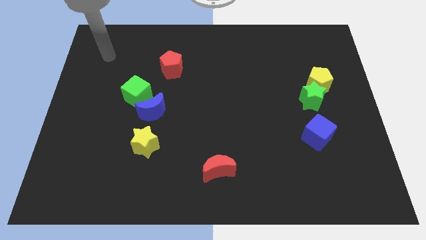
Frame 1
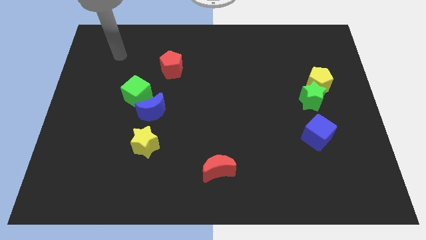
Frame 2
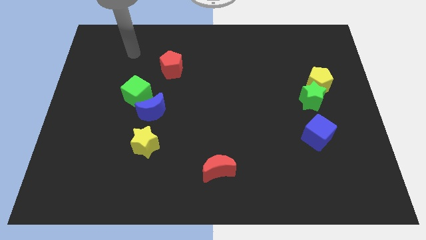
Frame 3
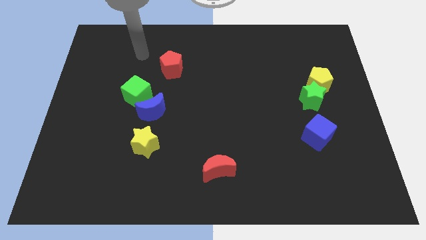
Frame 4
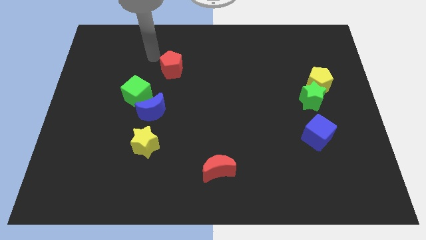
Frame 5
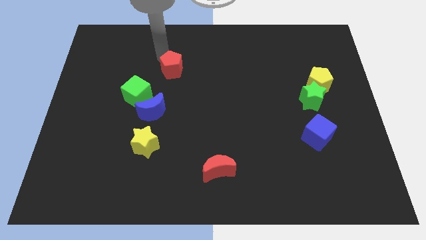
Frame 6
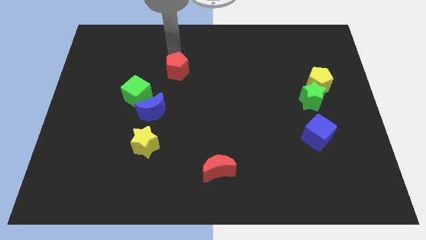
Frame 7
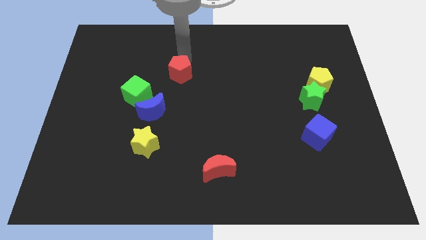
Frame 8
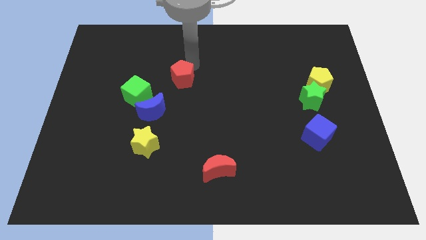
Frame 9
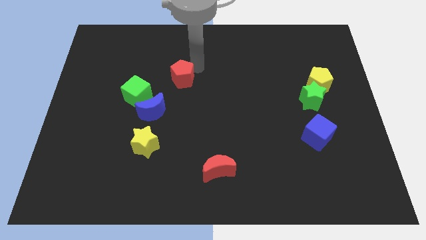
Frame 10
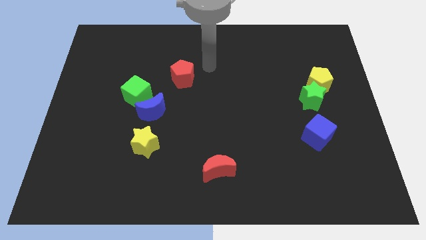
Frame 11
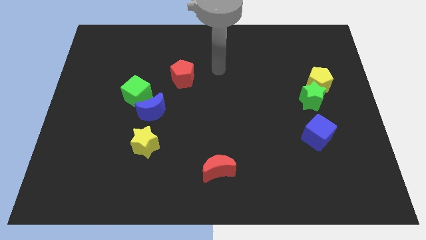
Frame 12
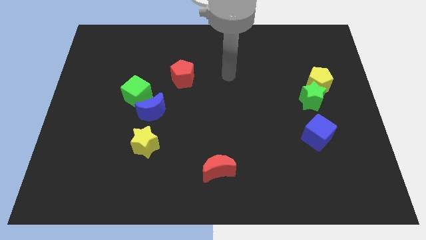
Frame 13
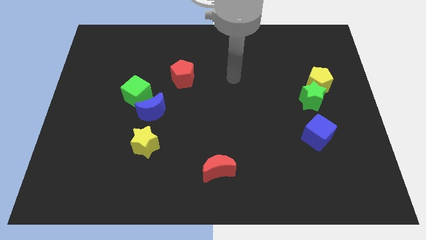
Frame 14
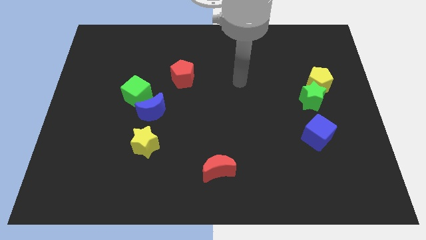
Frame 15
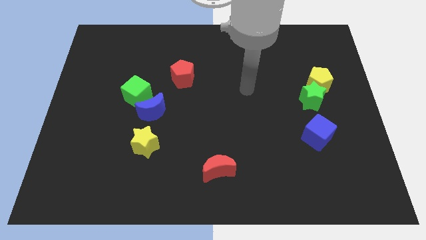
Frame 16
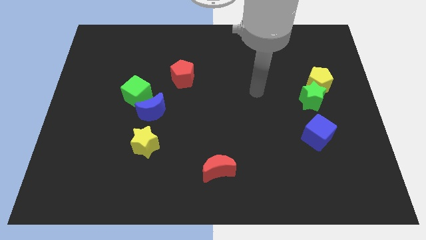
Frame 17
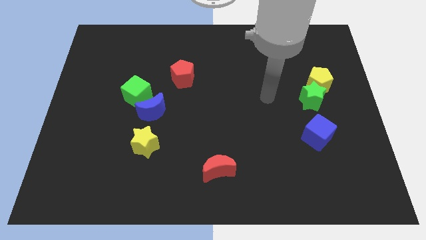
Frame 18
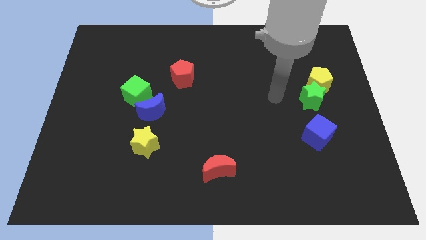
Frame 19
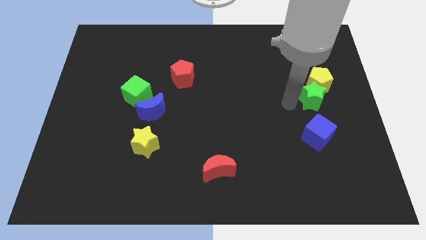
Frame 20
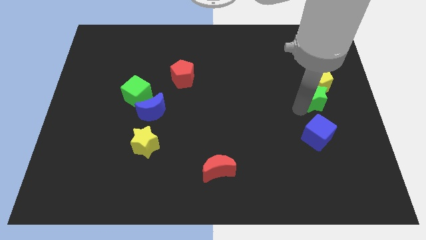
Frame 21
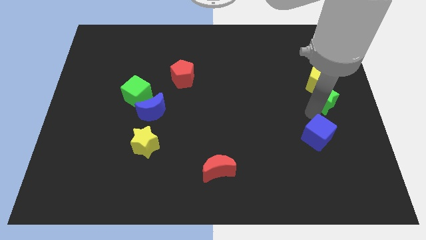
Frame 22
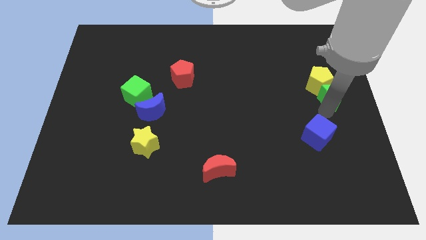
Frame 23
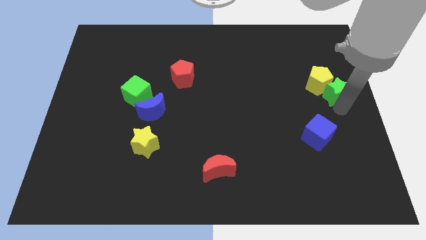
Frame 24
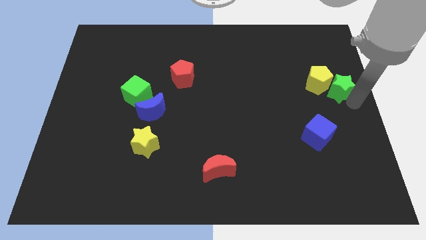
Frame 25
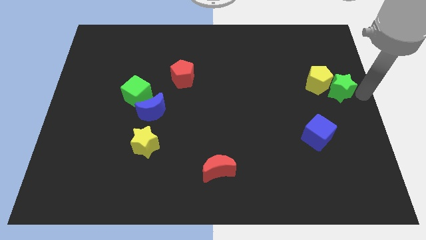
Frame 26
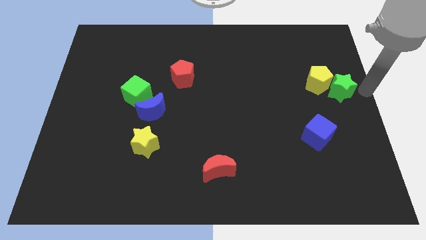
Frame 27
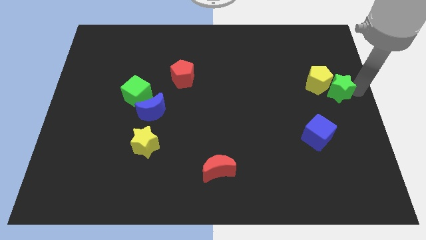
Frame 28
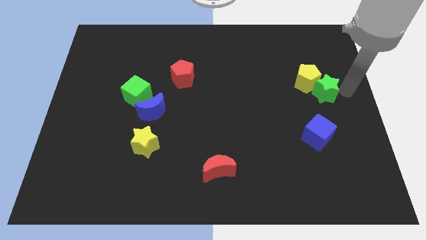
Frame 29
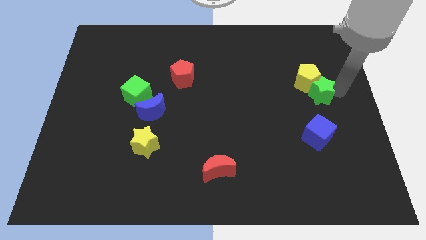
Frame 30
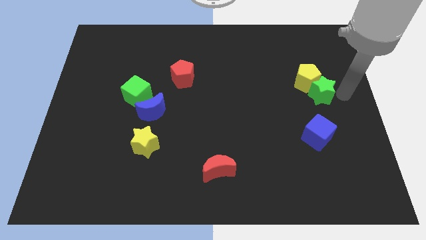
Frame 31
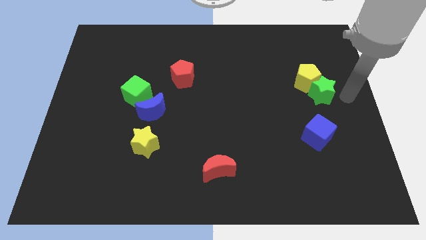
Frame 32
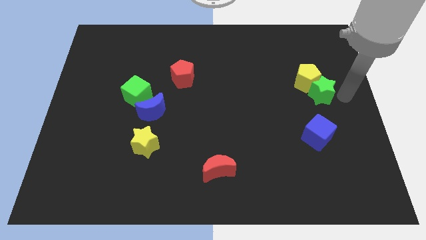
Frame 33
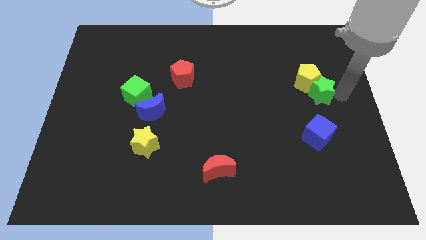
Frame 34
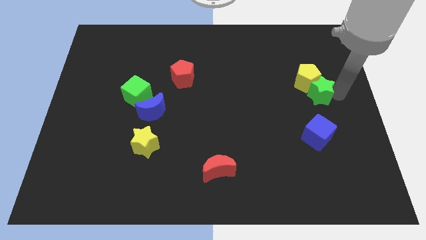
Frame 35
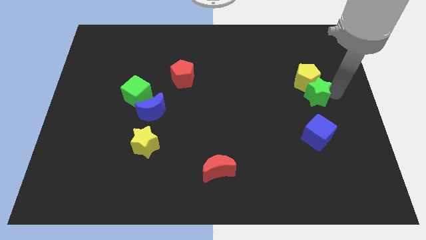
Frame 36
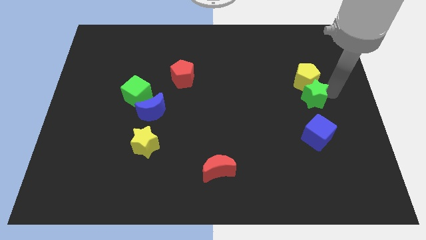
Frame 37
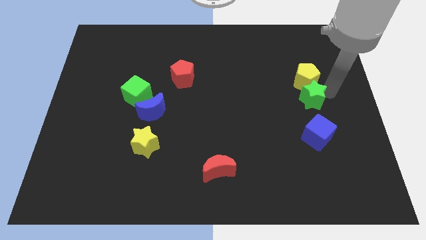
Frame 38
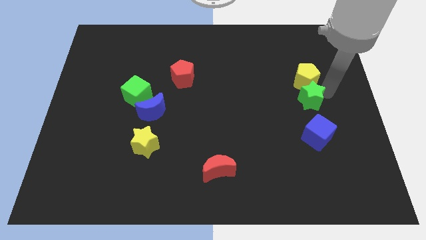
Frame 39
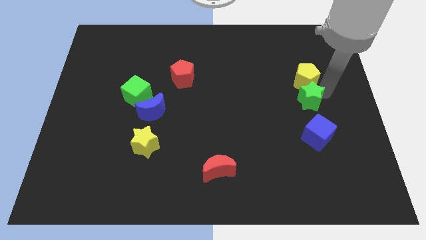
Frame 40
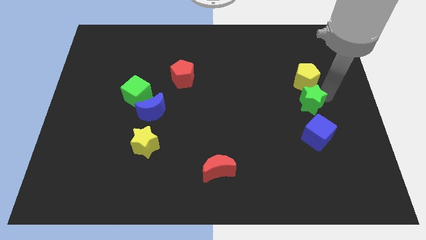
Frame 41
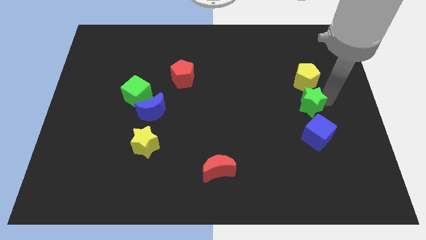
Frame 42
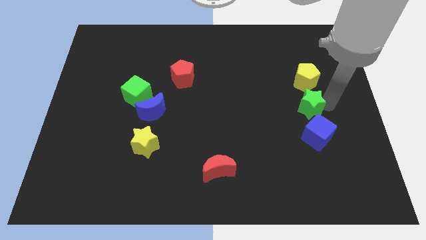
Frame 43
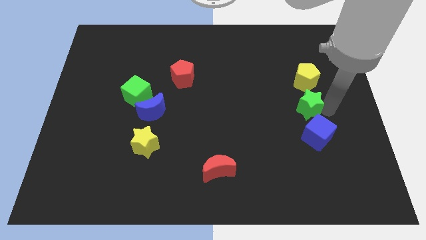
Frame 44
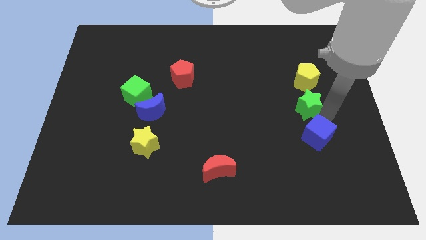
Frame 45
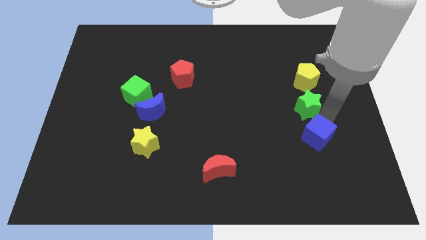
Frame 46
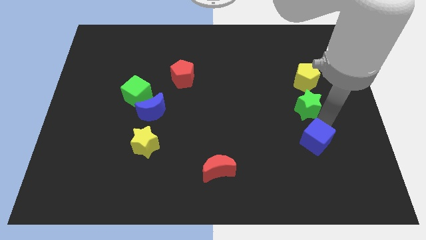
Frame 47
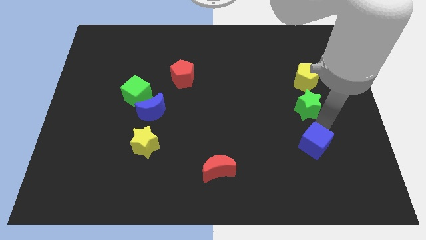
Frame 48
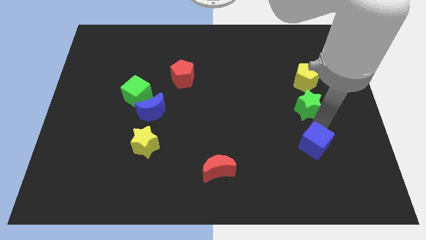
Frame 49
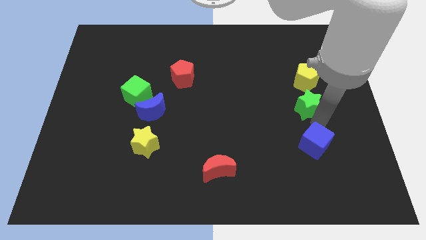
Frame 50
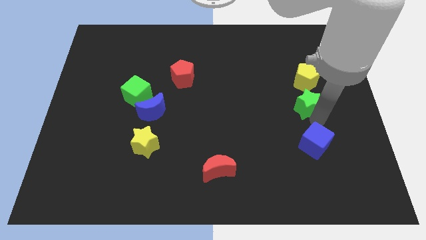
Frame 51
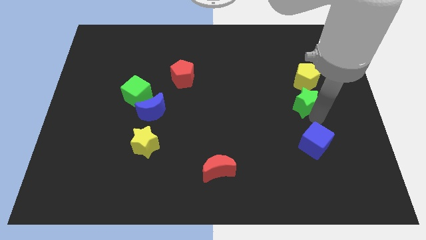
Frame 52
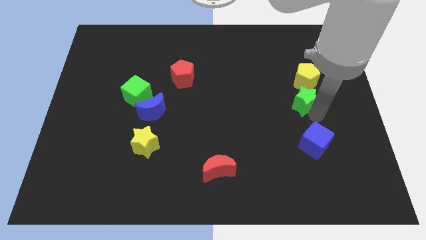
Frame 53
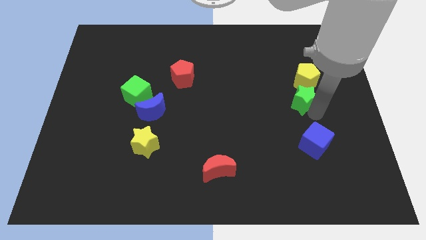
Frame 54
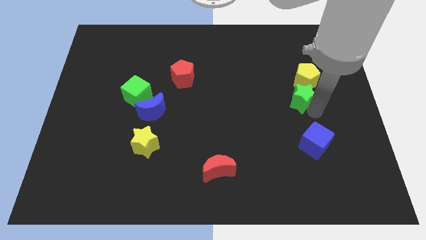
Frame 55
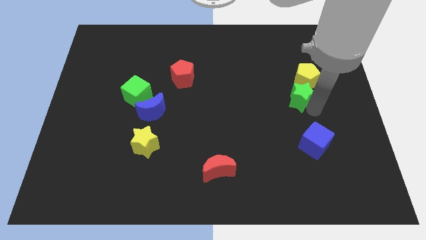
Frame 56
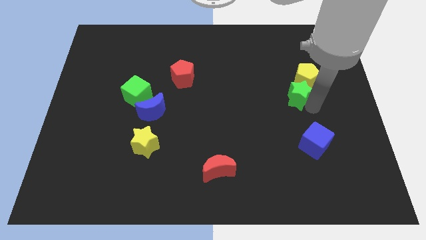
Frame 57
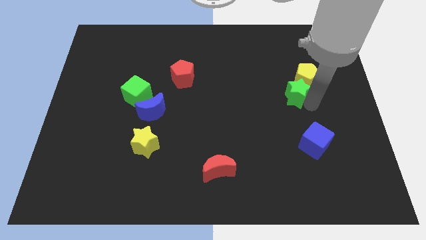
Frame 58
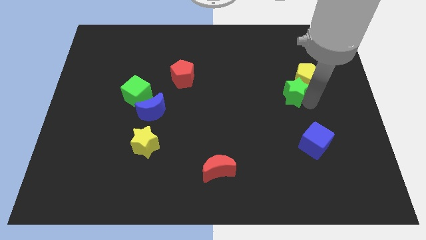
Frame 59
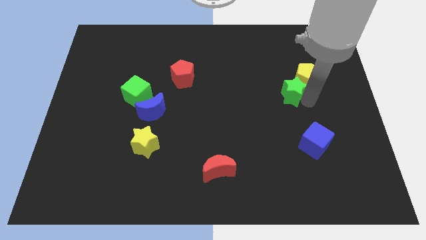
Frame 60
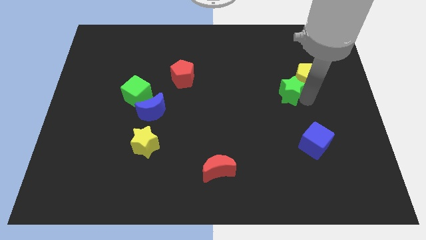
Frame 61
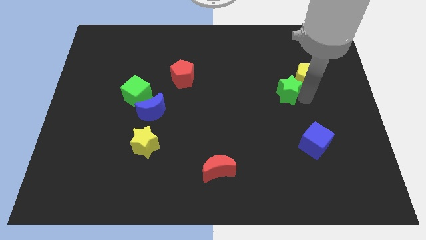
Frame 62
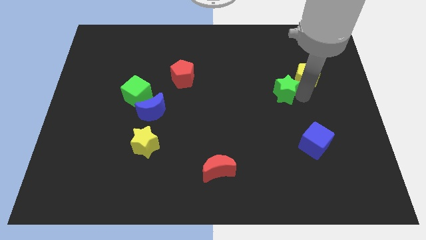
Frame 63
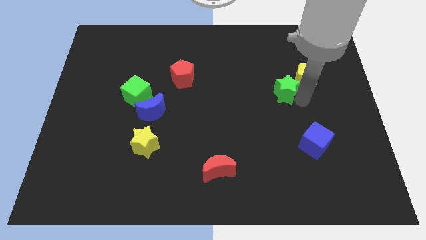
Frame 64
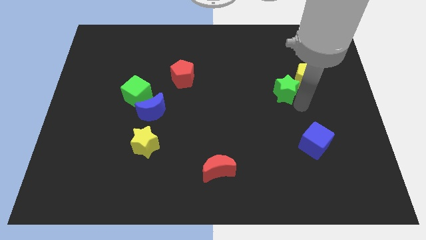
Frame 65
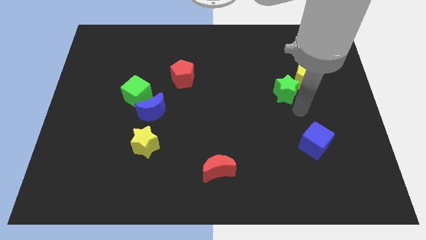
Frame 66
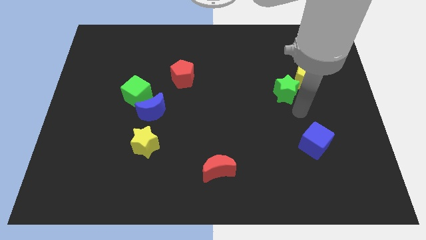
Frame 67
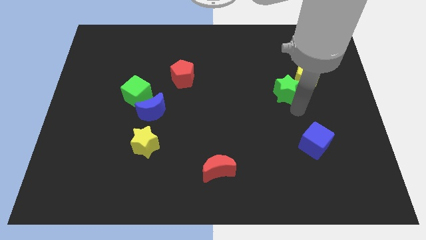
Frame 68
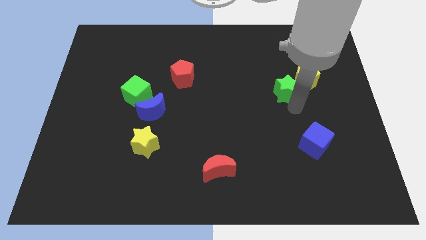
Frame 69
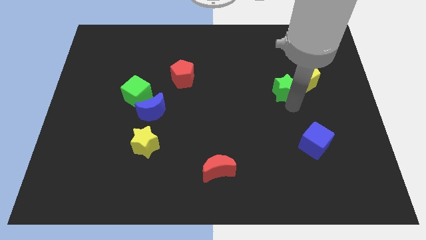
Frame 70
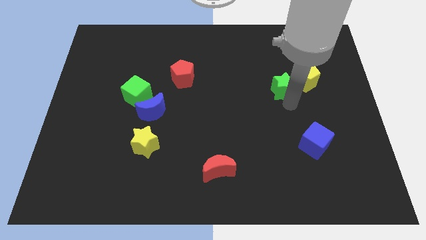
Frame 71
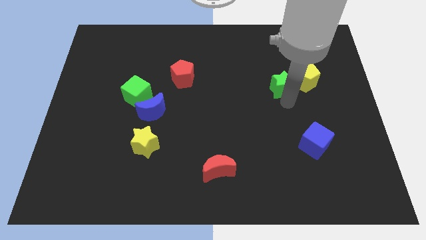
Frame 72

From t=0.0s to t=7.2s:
slide the green star slightly diagonally up and to the left

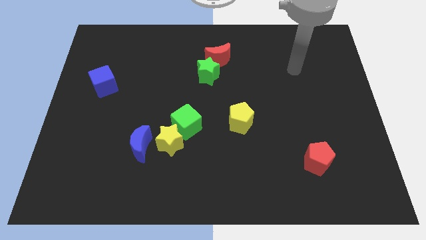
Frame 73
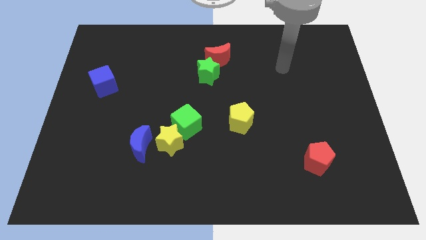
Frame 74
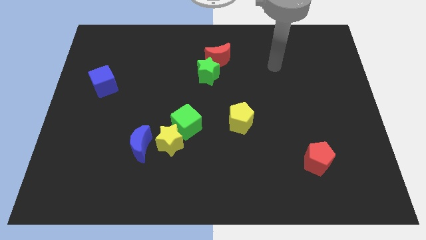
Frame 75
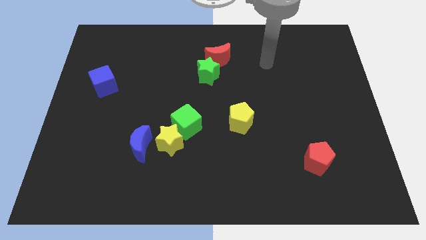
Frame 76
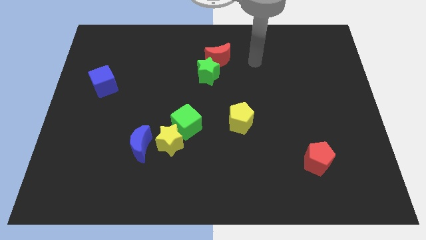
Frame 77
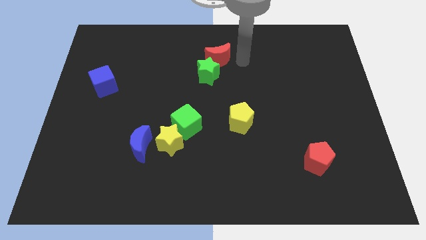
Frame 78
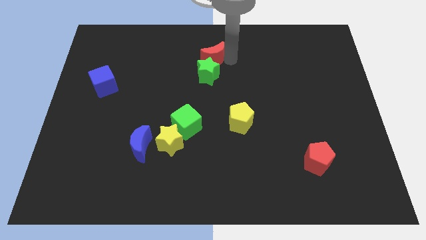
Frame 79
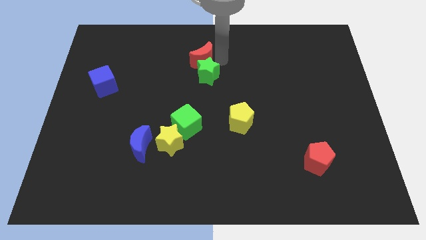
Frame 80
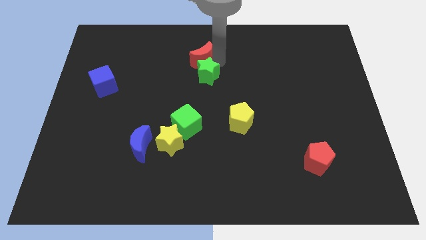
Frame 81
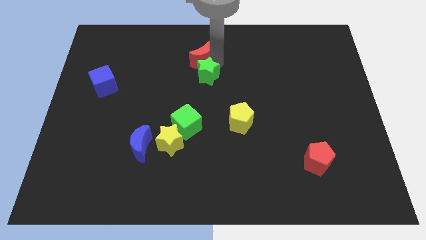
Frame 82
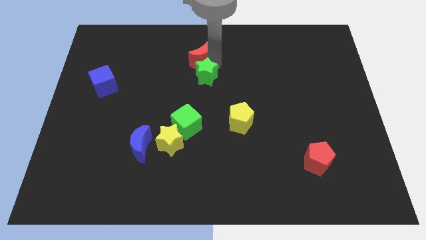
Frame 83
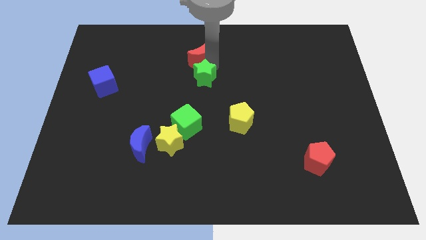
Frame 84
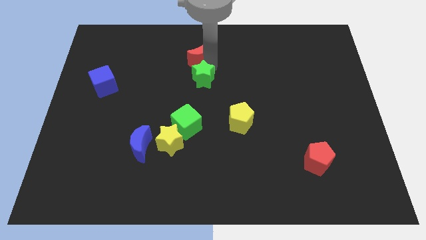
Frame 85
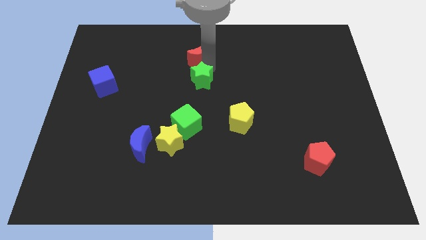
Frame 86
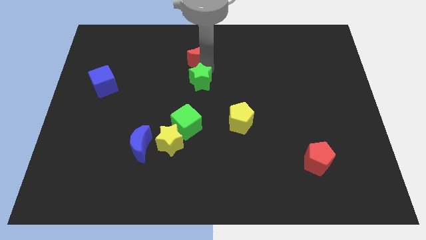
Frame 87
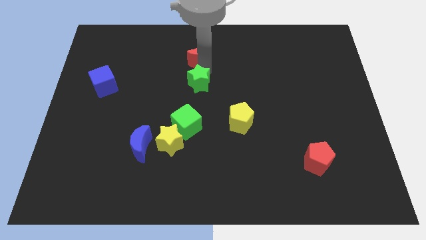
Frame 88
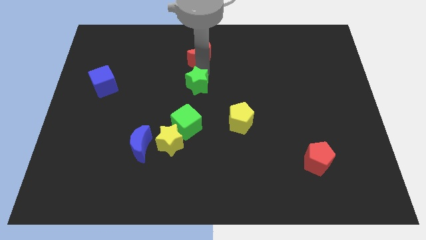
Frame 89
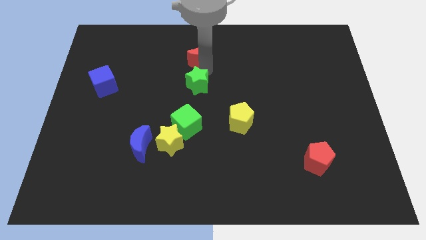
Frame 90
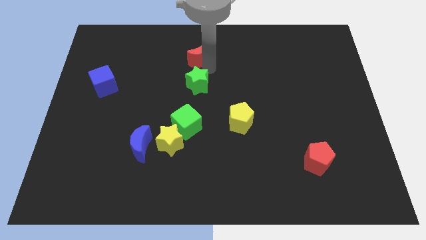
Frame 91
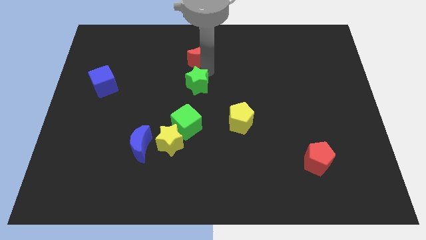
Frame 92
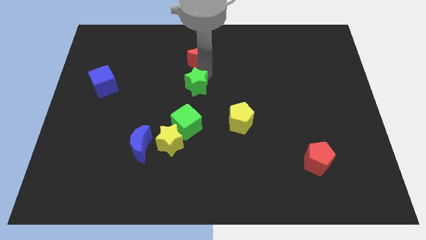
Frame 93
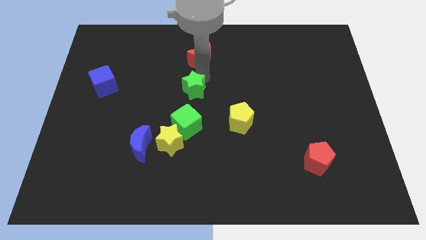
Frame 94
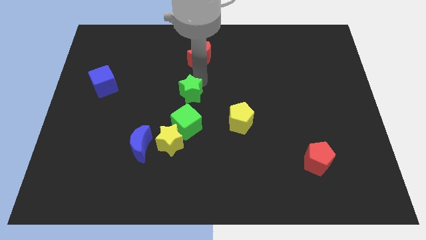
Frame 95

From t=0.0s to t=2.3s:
move the green star slightly downwards and to the left diagonally
